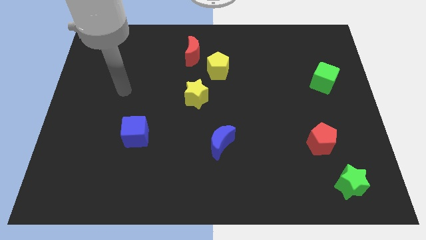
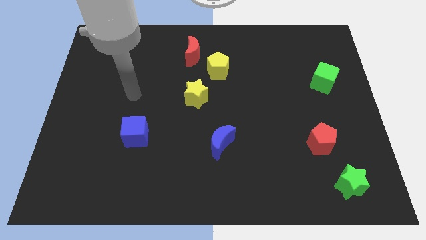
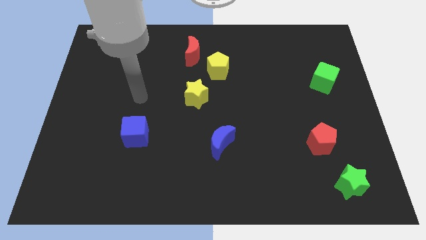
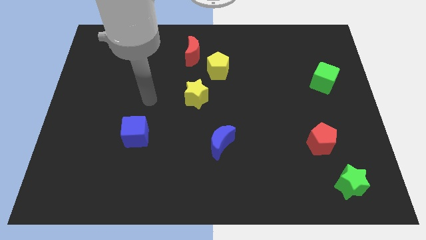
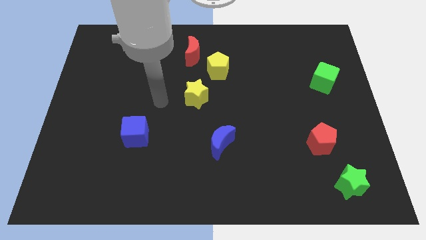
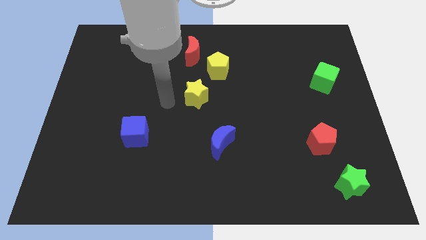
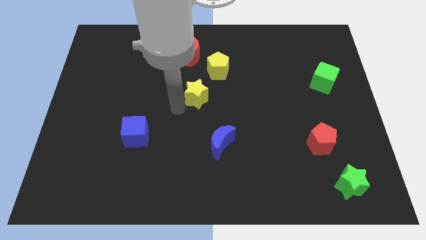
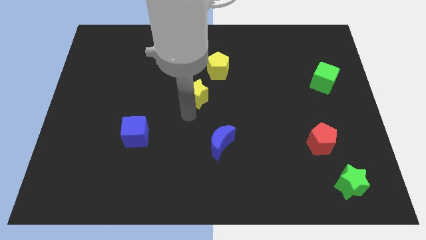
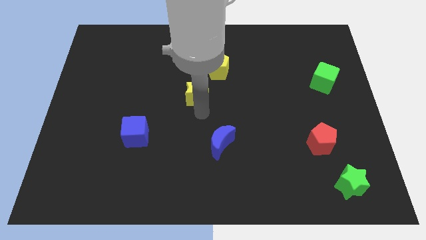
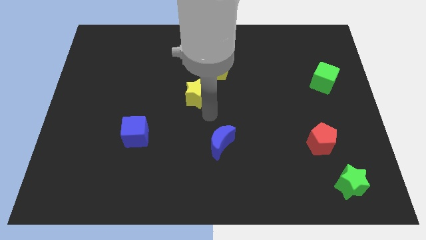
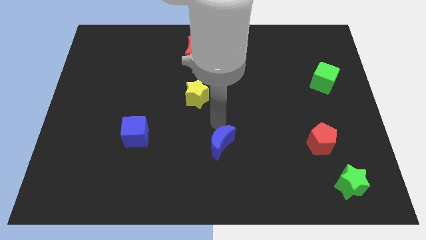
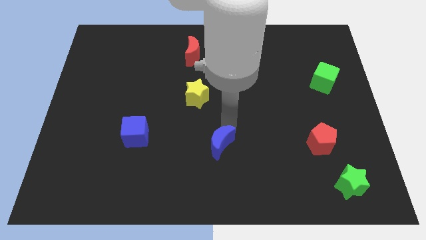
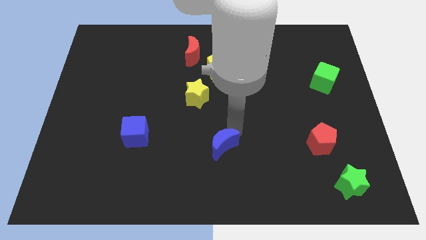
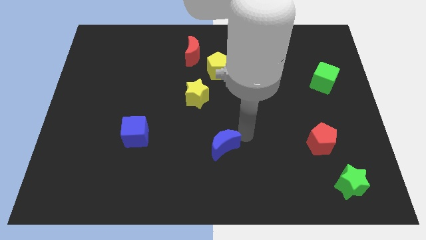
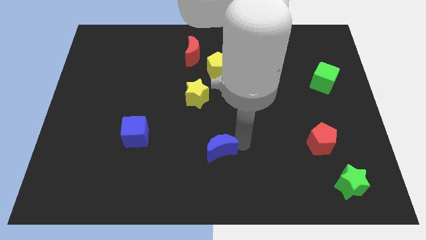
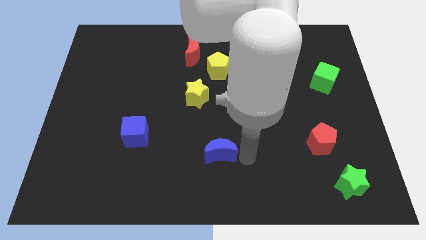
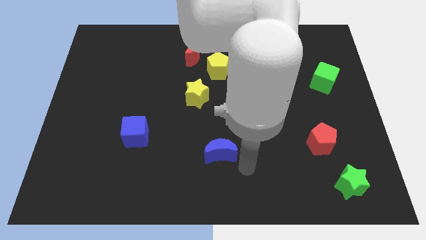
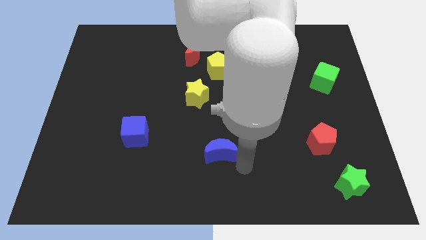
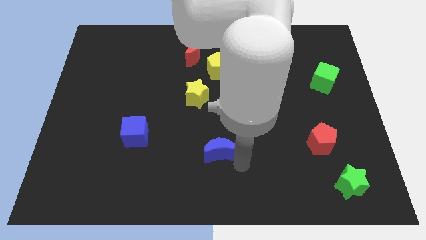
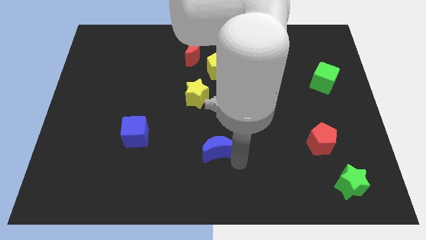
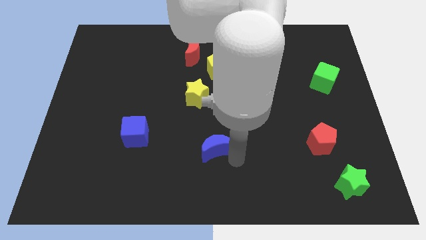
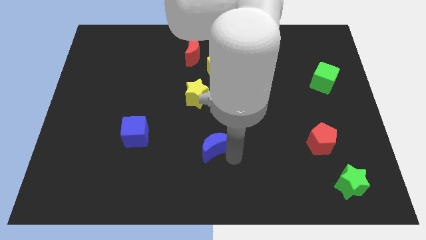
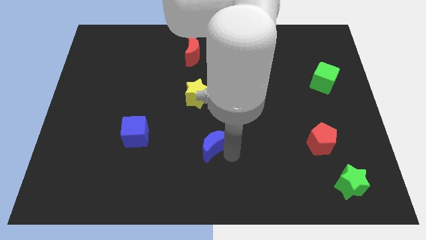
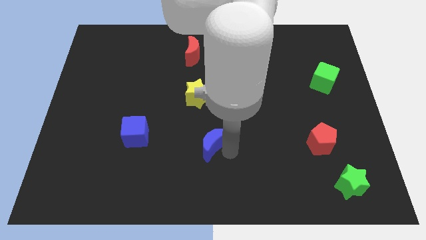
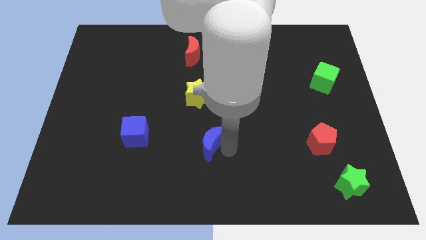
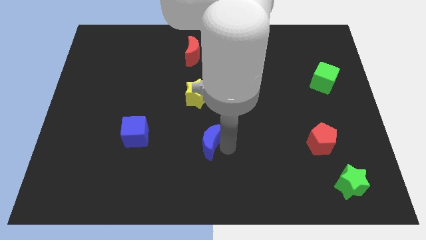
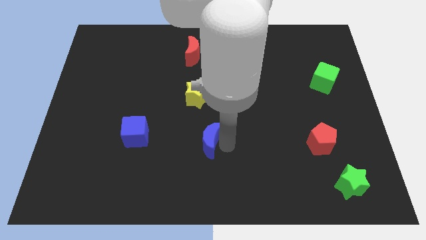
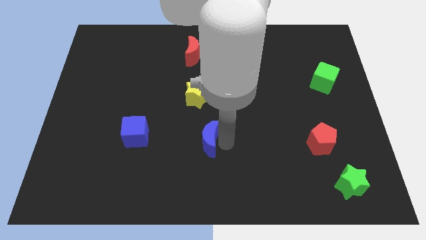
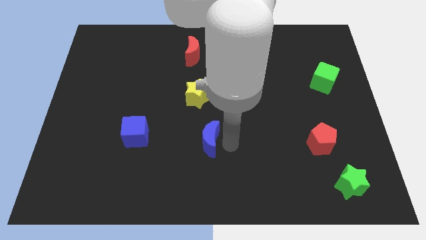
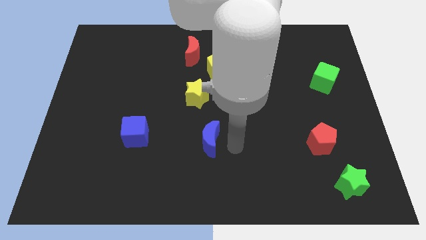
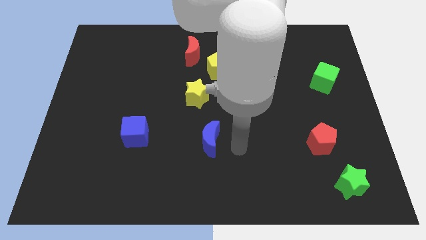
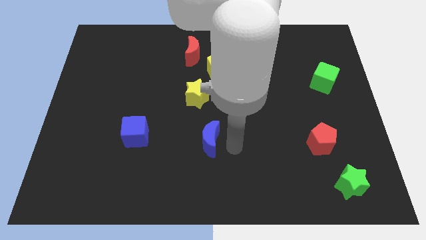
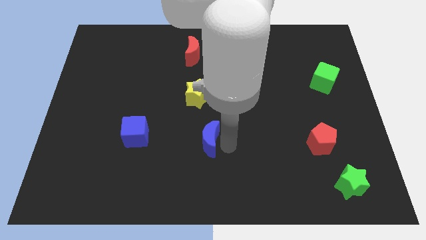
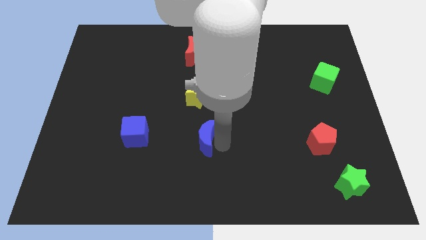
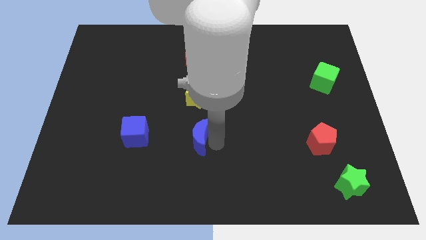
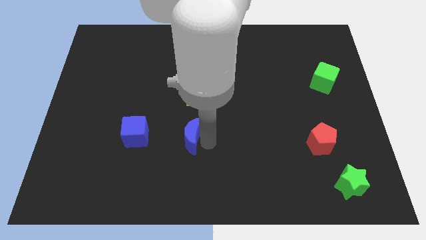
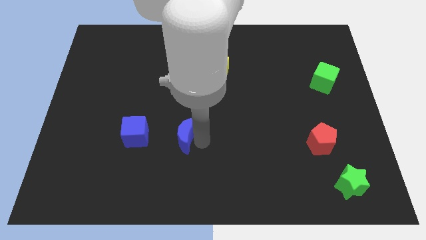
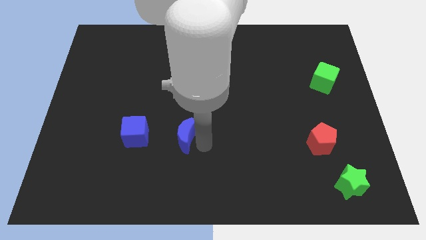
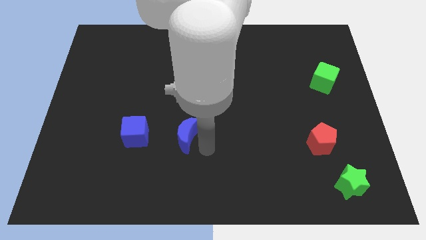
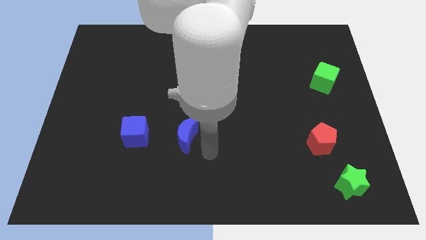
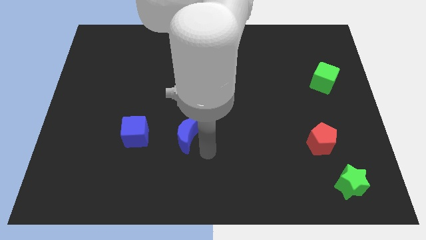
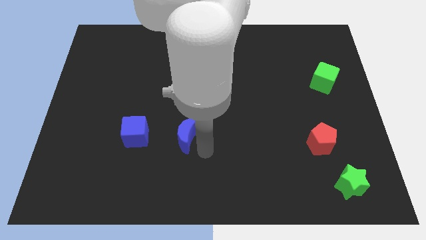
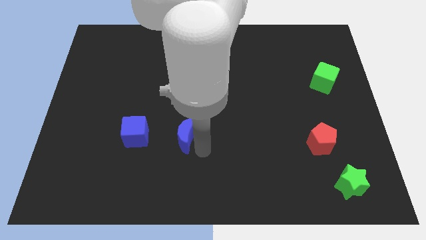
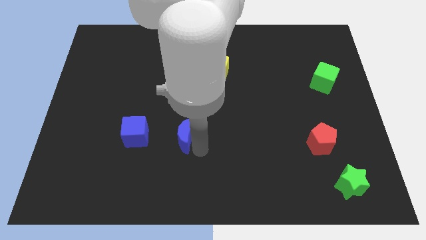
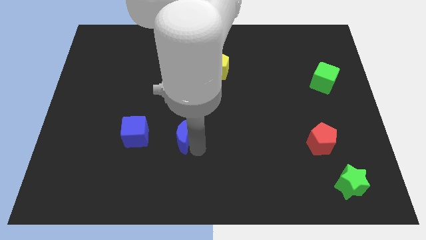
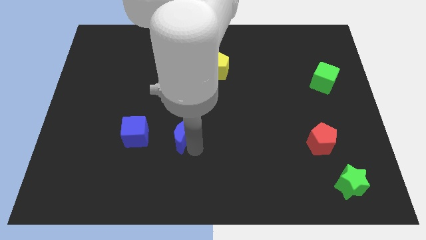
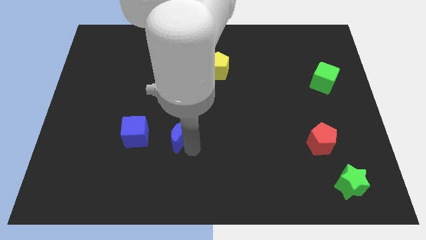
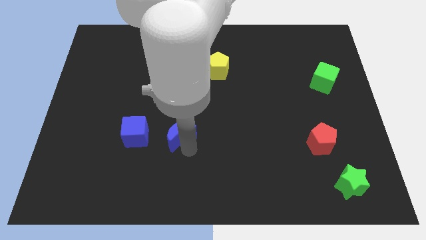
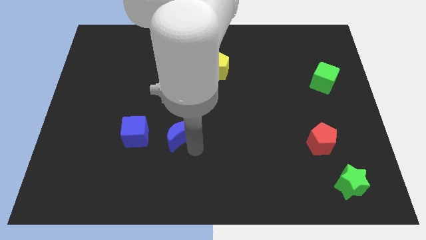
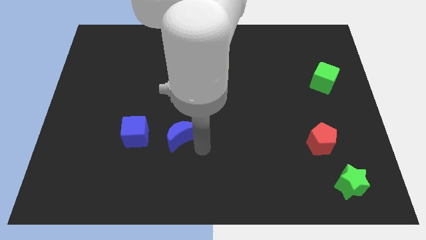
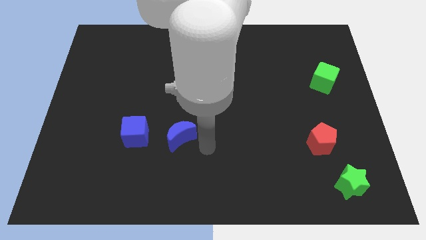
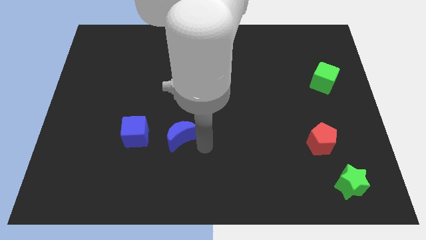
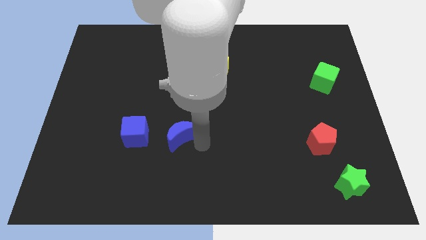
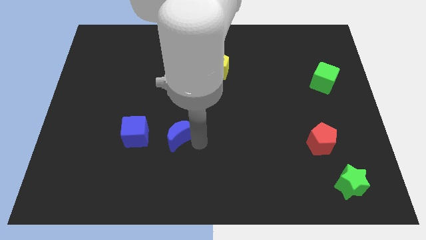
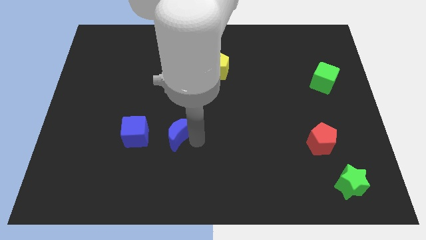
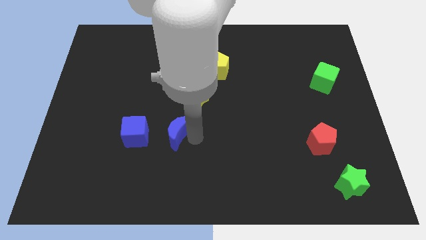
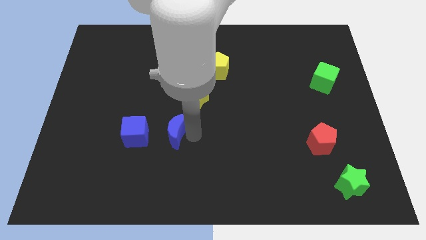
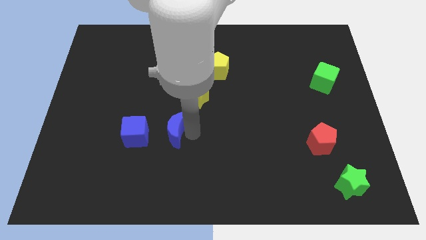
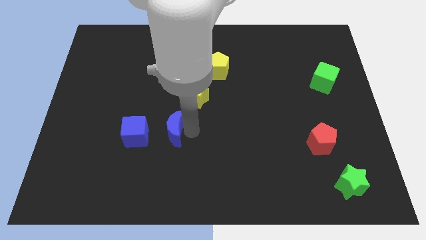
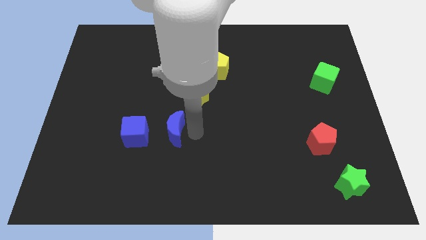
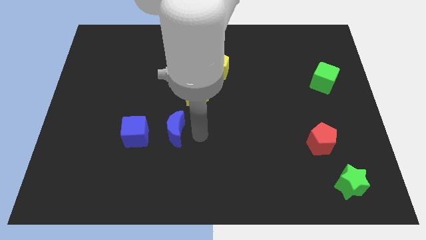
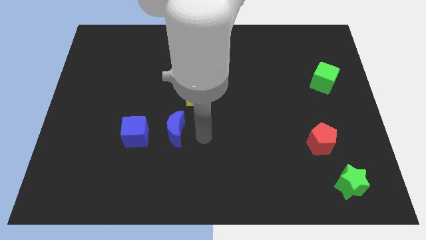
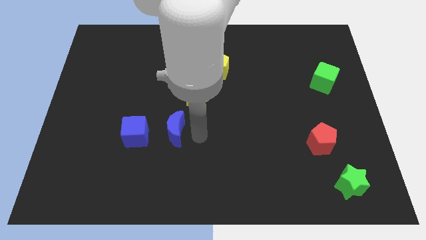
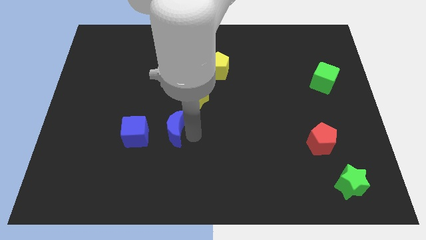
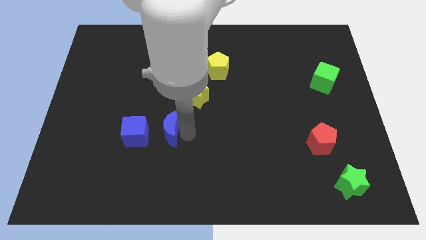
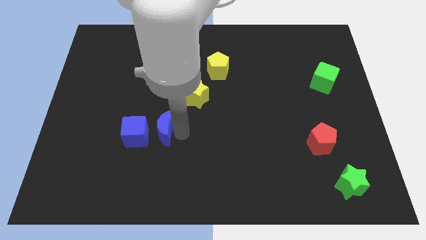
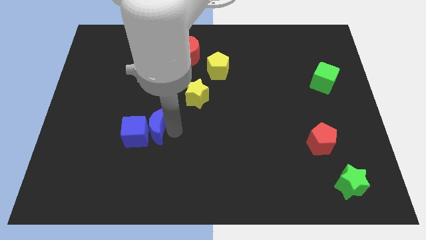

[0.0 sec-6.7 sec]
put the blue moon towards the blue cube

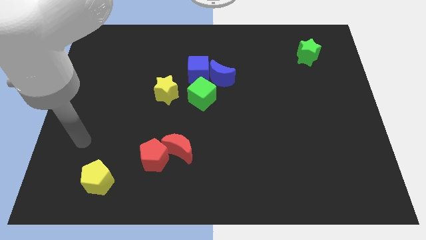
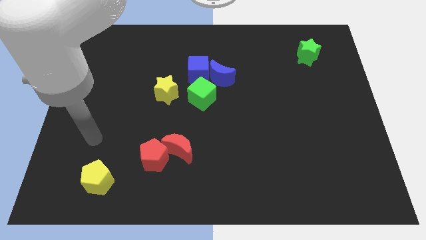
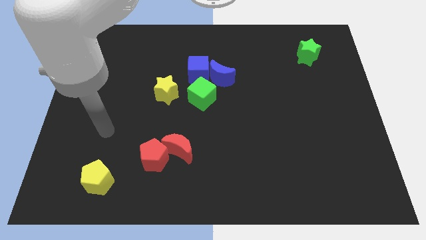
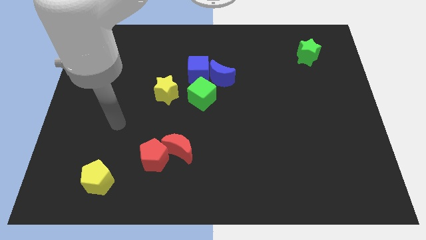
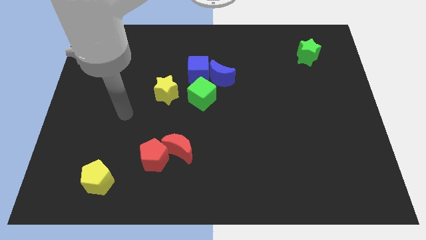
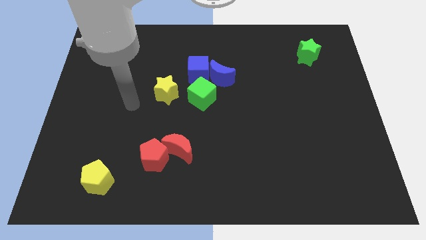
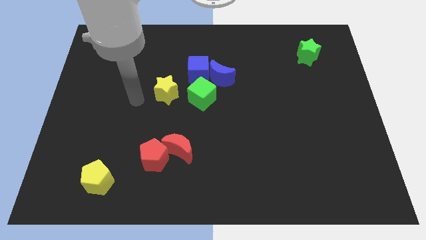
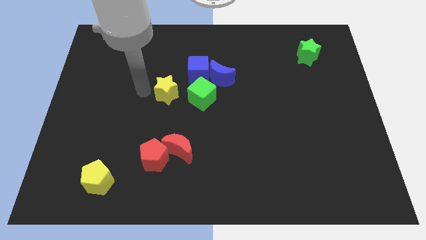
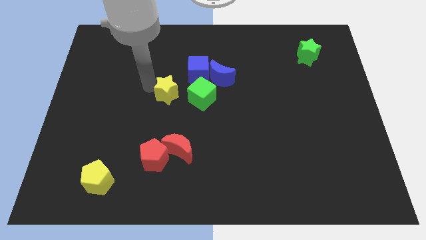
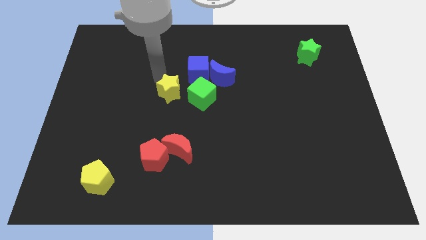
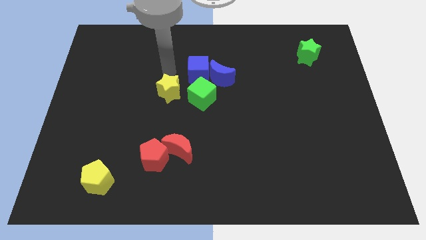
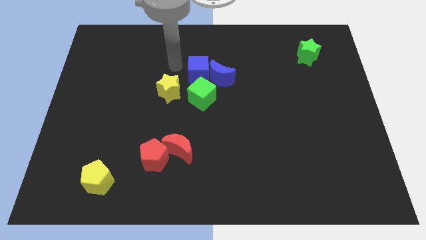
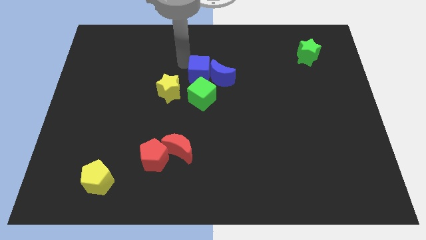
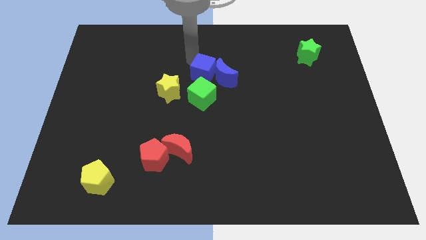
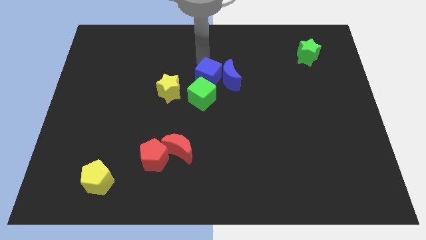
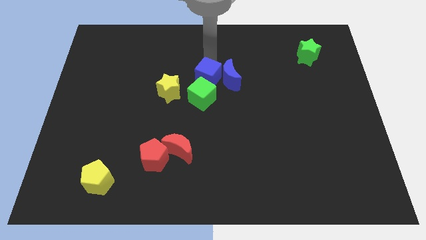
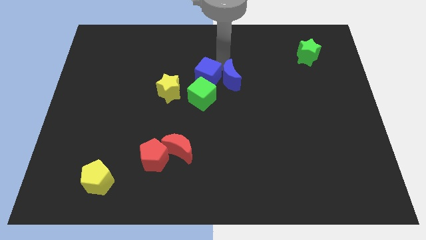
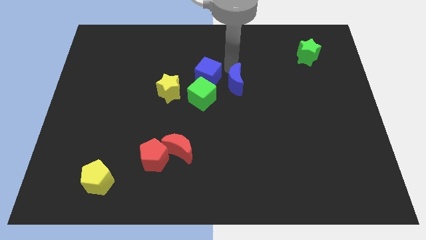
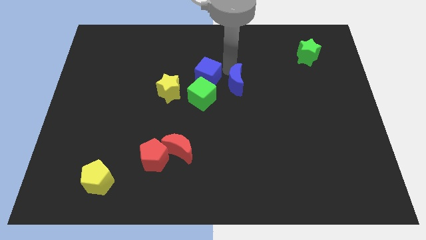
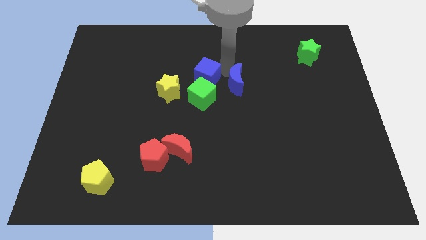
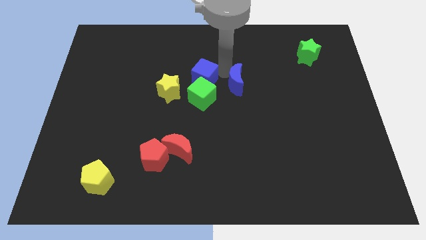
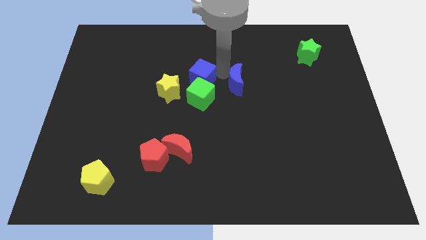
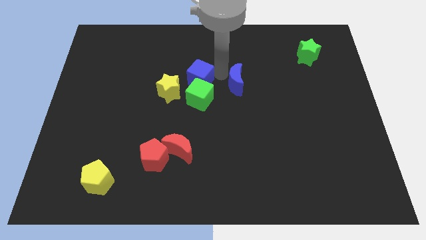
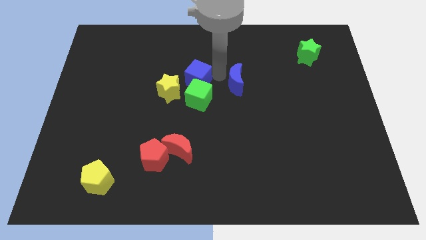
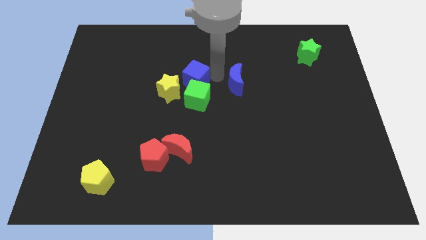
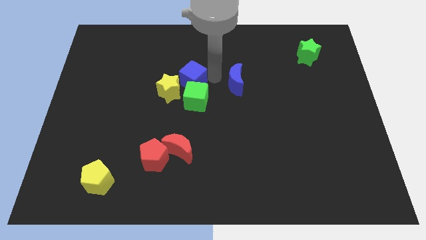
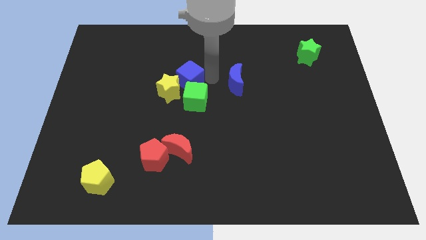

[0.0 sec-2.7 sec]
move the blue cube towards the yellow star
